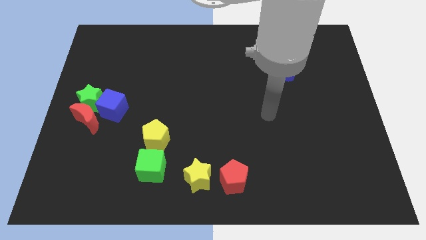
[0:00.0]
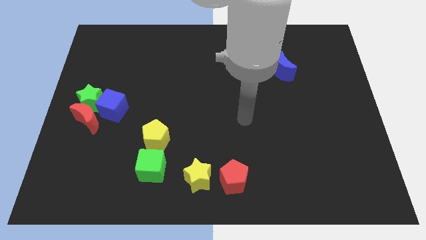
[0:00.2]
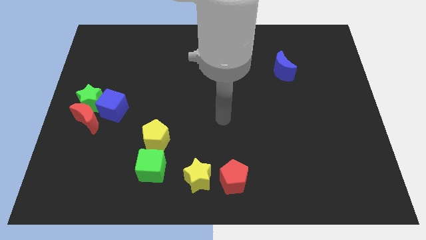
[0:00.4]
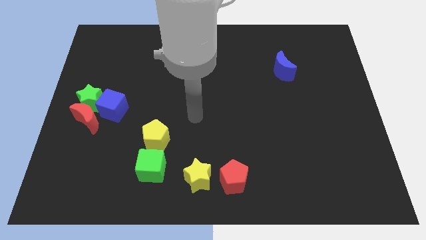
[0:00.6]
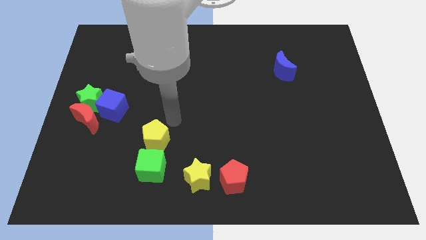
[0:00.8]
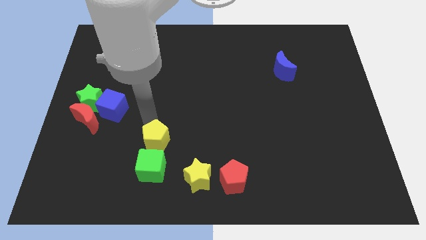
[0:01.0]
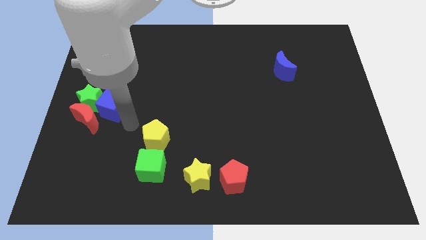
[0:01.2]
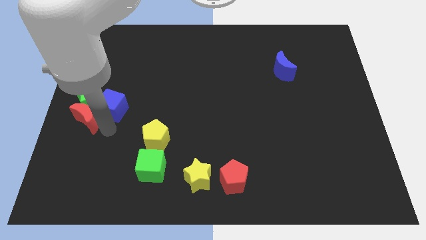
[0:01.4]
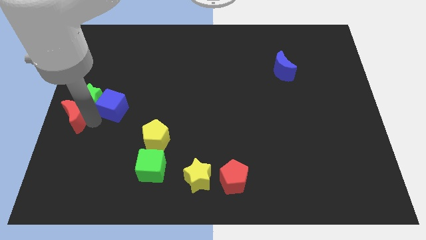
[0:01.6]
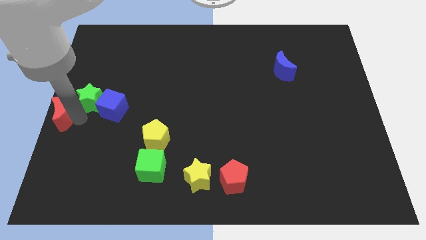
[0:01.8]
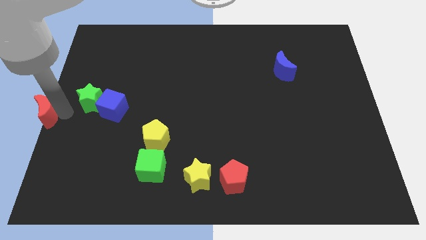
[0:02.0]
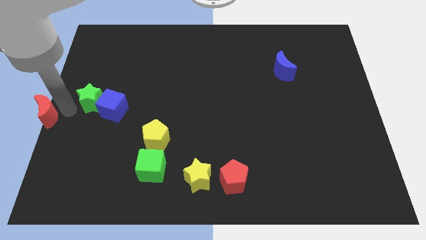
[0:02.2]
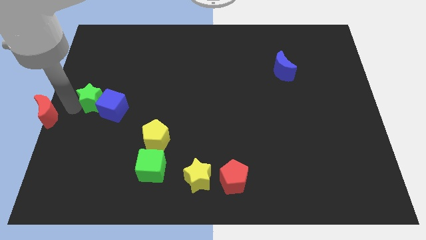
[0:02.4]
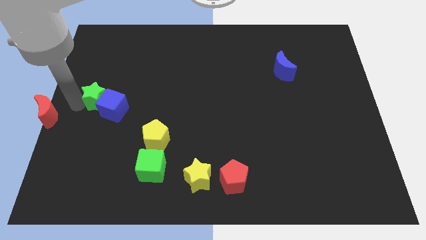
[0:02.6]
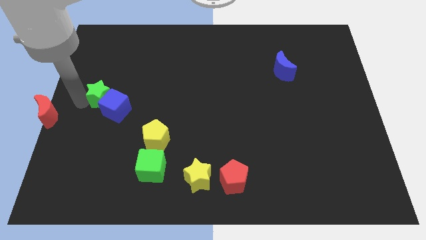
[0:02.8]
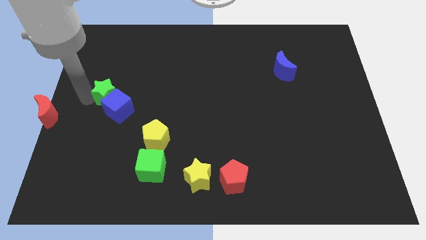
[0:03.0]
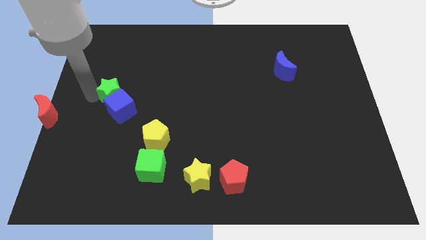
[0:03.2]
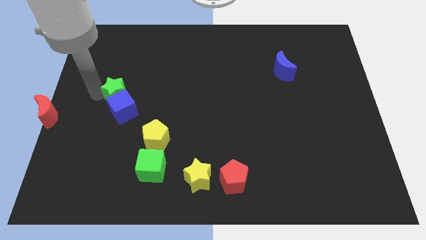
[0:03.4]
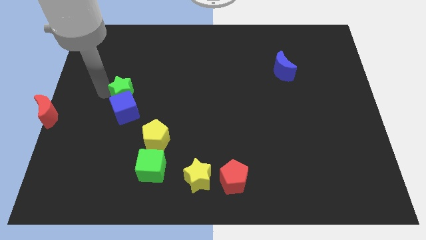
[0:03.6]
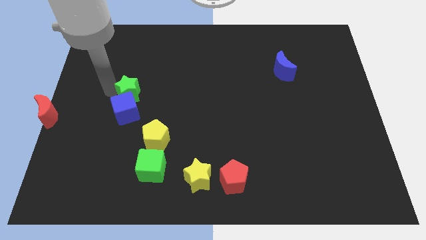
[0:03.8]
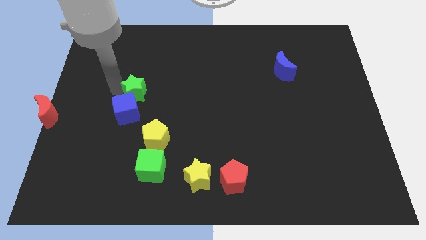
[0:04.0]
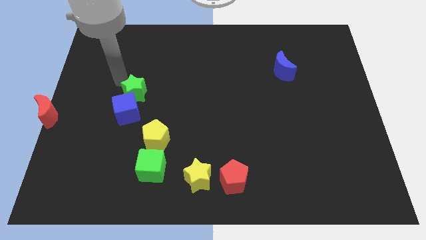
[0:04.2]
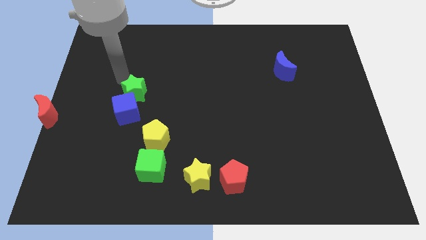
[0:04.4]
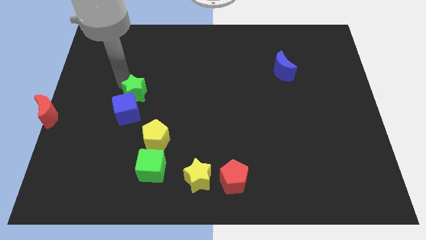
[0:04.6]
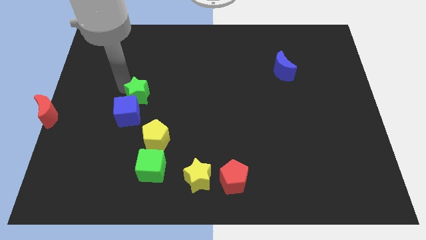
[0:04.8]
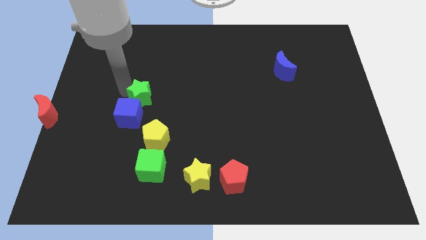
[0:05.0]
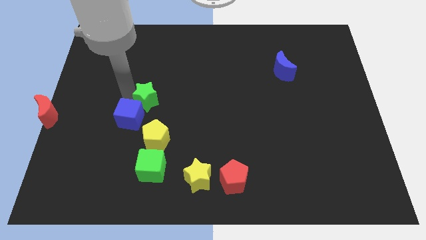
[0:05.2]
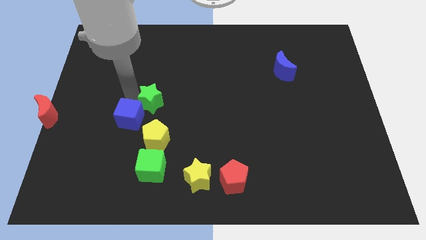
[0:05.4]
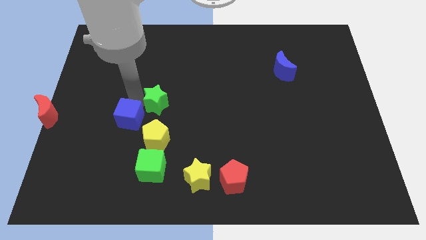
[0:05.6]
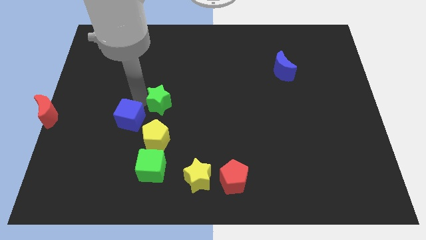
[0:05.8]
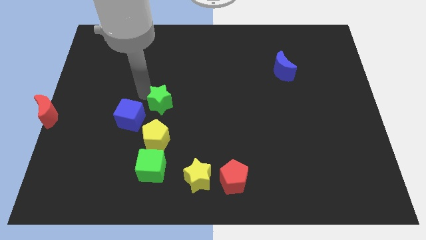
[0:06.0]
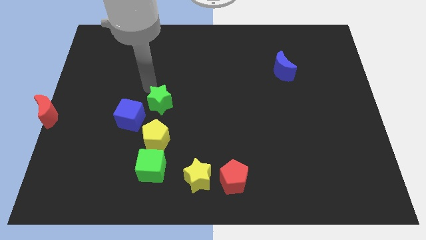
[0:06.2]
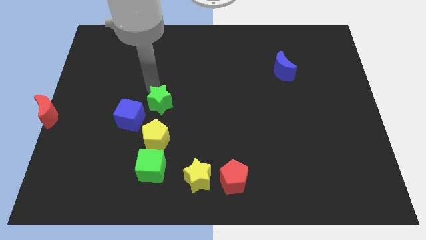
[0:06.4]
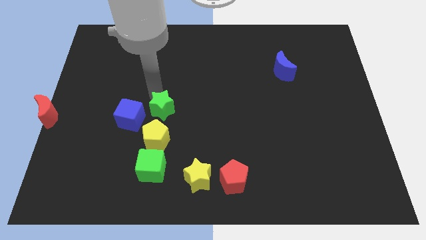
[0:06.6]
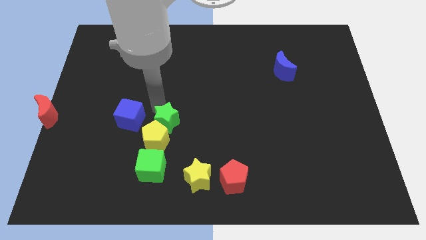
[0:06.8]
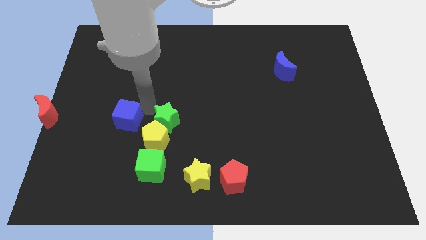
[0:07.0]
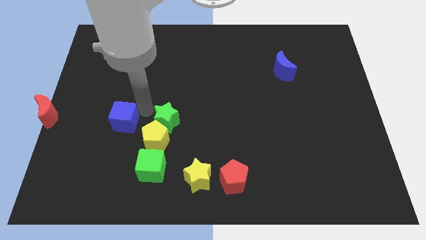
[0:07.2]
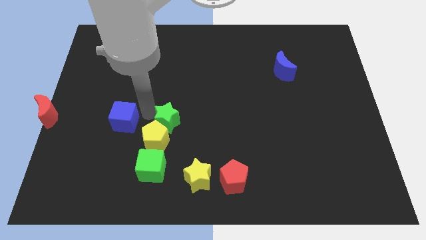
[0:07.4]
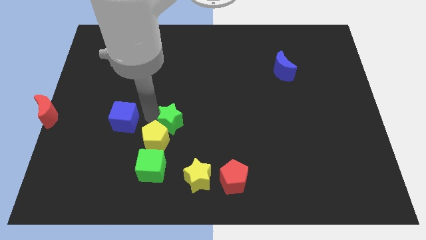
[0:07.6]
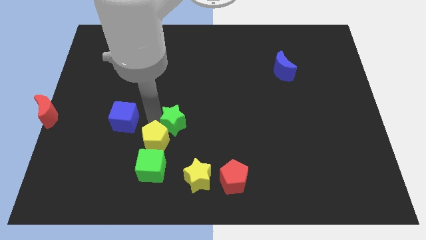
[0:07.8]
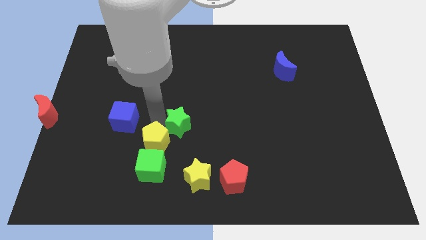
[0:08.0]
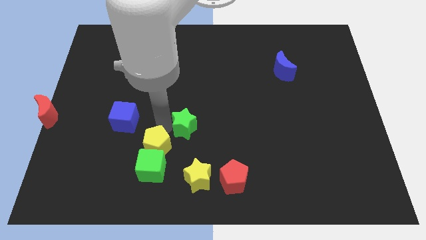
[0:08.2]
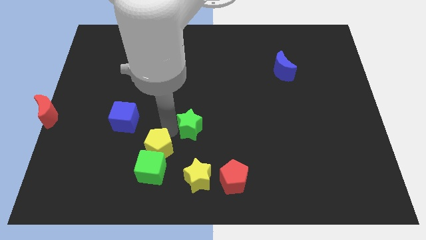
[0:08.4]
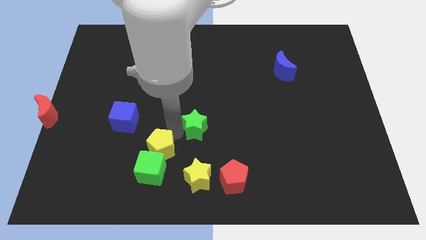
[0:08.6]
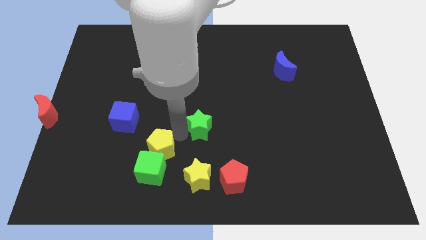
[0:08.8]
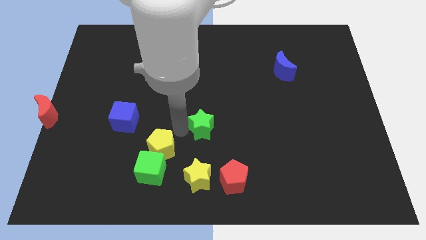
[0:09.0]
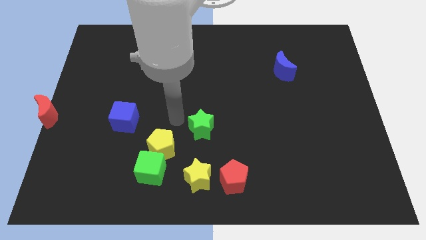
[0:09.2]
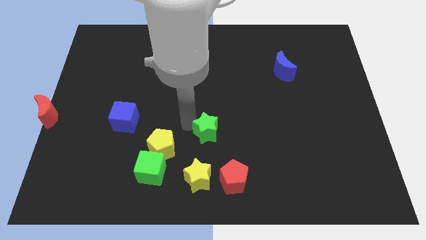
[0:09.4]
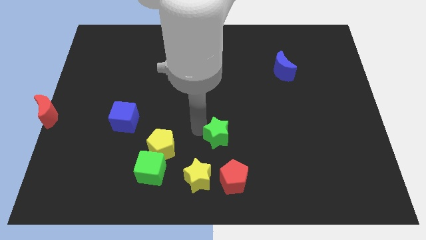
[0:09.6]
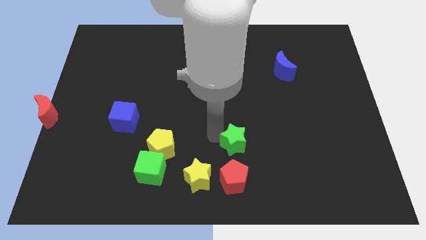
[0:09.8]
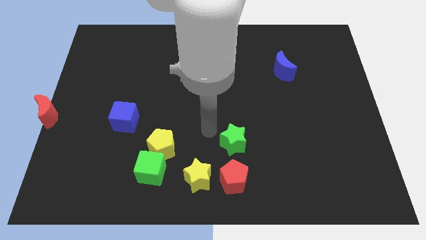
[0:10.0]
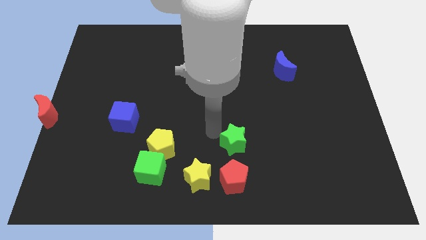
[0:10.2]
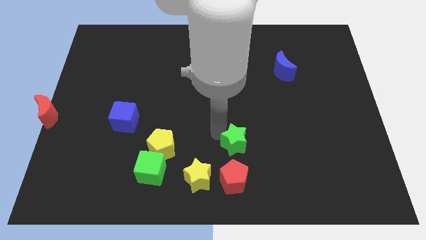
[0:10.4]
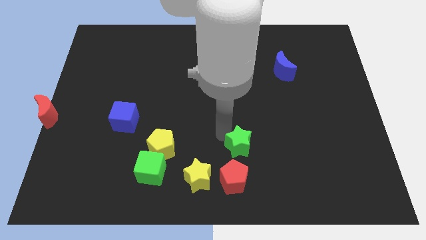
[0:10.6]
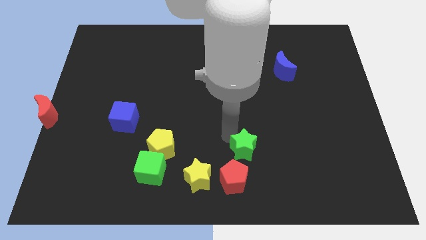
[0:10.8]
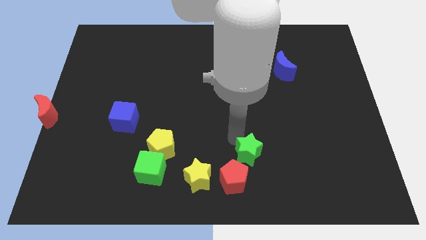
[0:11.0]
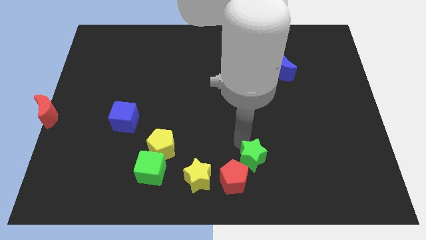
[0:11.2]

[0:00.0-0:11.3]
move the green star to the right side of the yellow star
